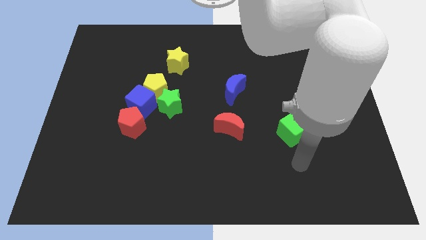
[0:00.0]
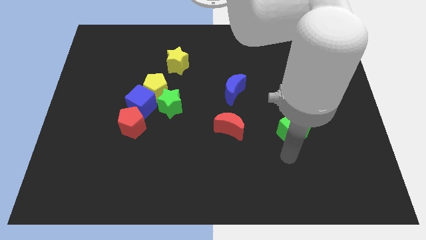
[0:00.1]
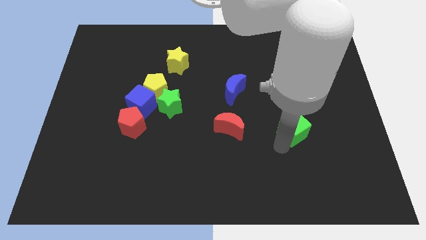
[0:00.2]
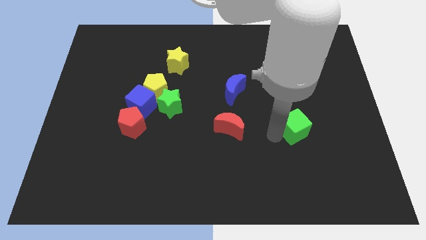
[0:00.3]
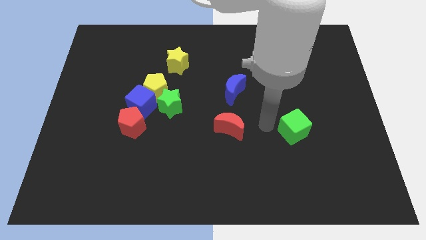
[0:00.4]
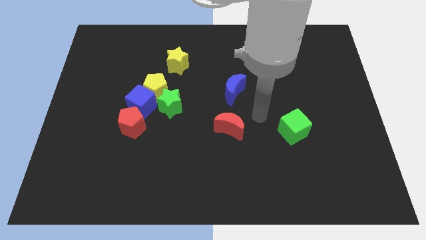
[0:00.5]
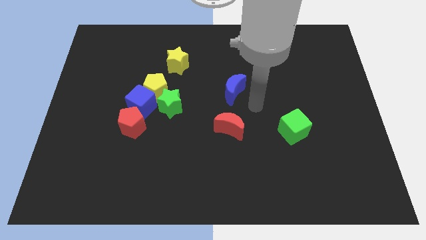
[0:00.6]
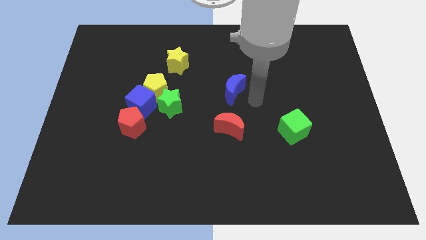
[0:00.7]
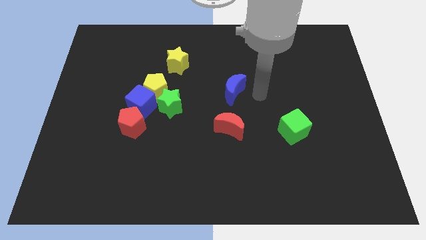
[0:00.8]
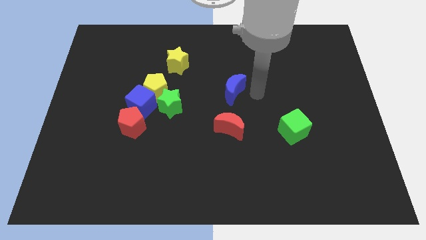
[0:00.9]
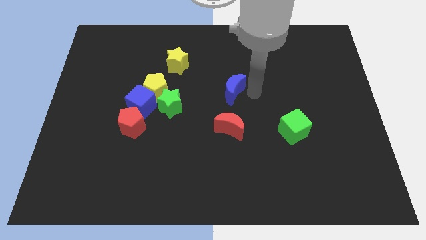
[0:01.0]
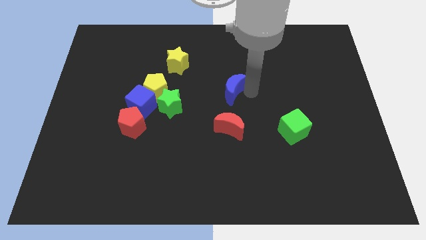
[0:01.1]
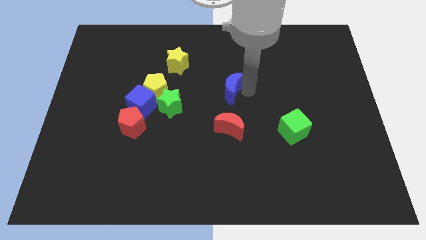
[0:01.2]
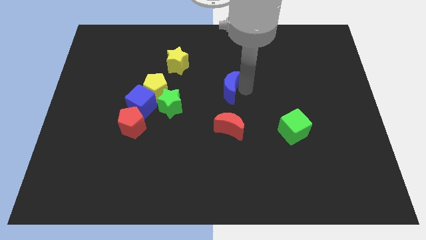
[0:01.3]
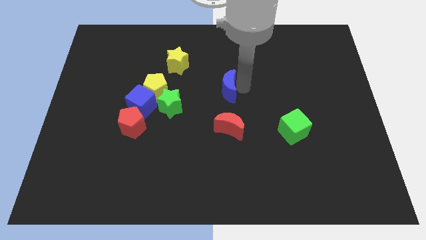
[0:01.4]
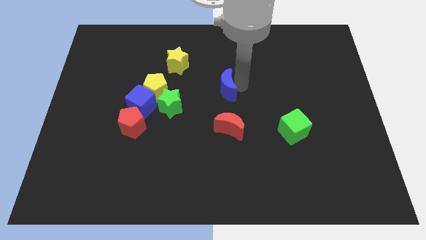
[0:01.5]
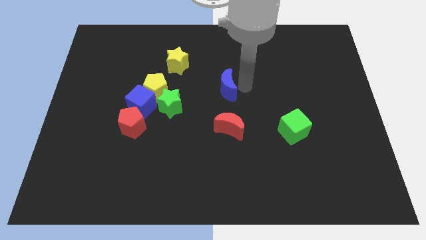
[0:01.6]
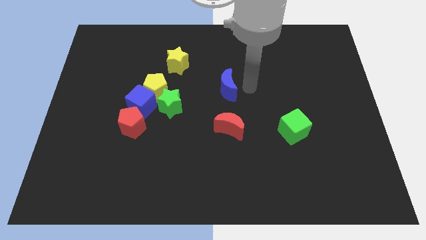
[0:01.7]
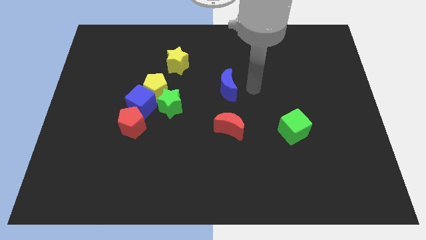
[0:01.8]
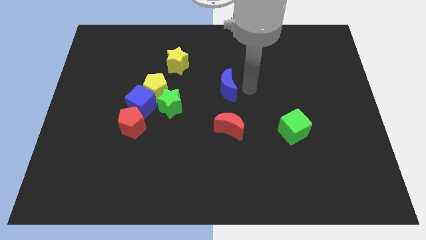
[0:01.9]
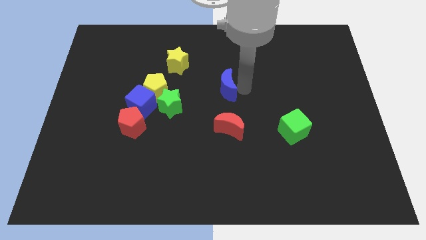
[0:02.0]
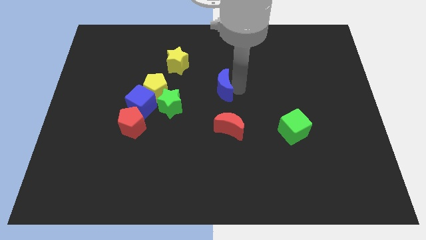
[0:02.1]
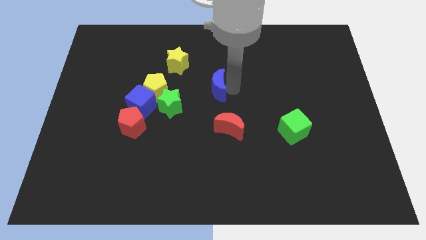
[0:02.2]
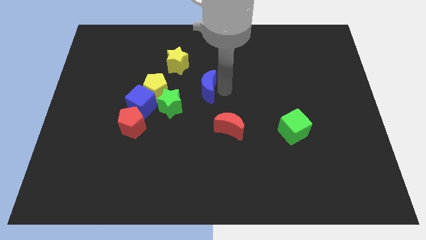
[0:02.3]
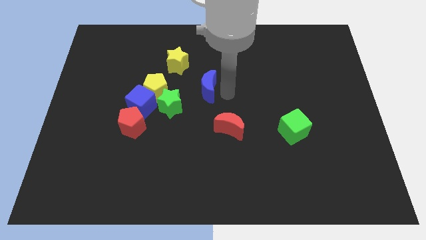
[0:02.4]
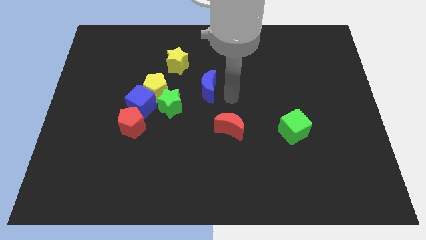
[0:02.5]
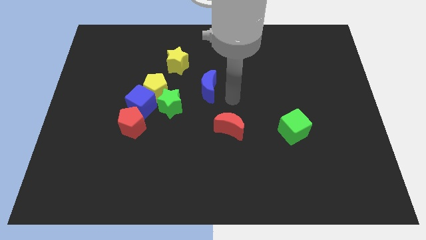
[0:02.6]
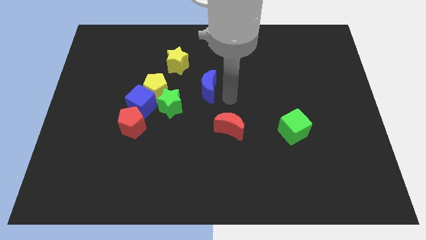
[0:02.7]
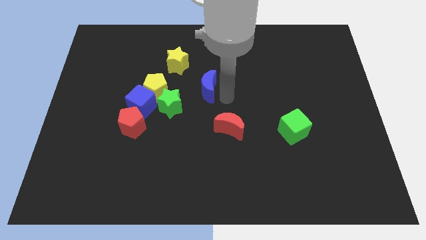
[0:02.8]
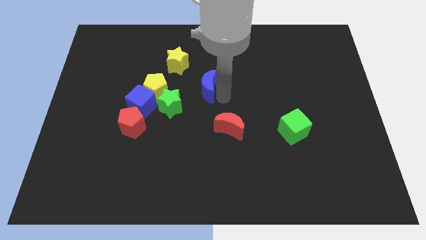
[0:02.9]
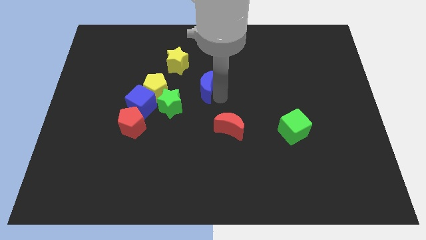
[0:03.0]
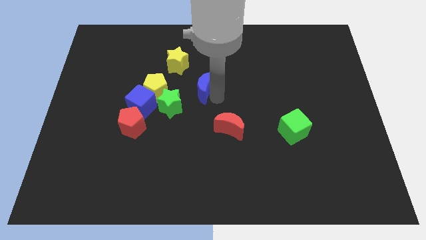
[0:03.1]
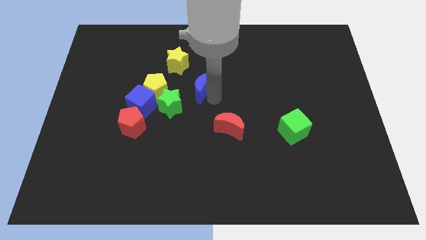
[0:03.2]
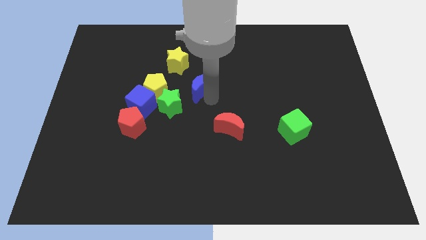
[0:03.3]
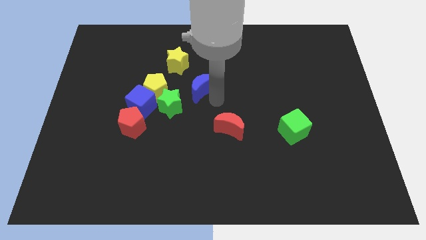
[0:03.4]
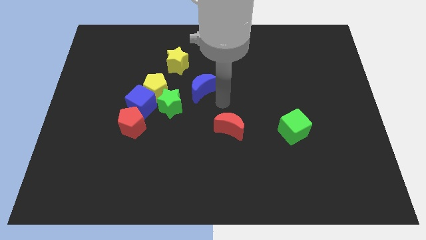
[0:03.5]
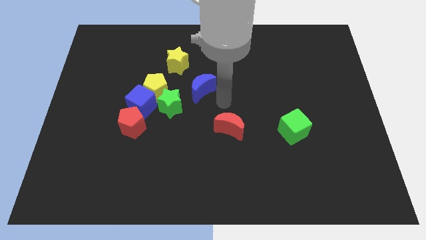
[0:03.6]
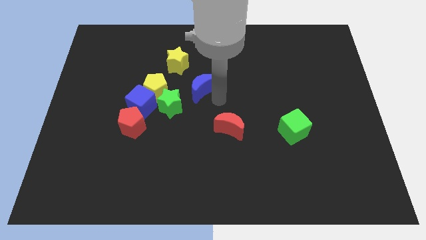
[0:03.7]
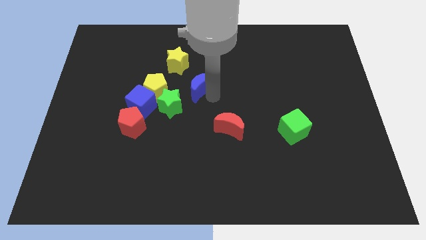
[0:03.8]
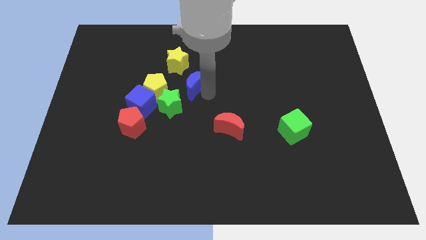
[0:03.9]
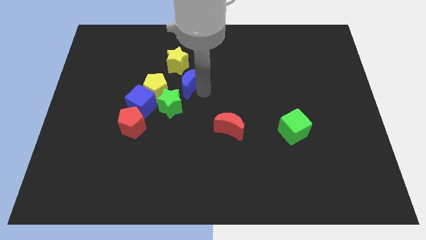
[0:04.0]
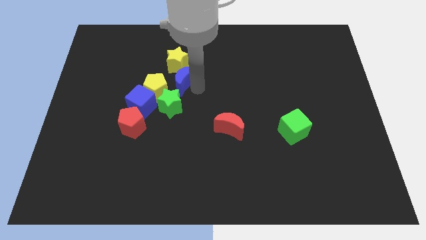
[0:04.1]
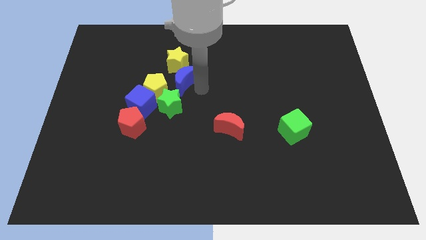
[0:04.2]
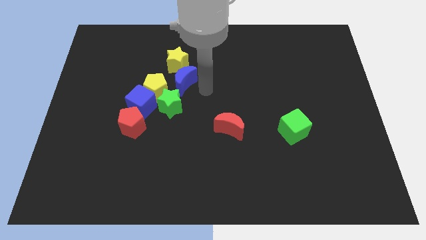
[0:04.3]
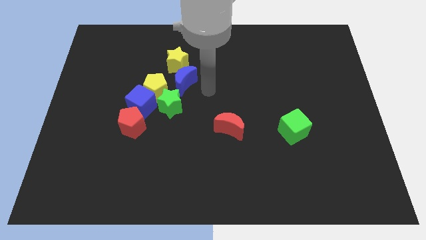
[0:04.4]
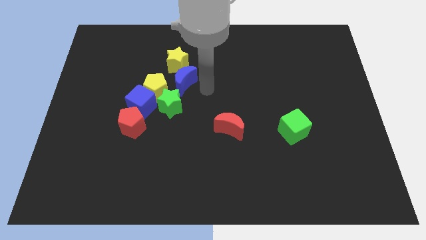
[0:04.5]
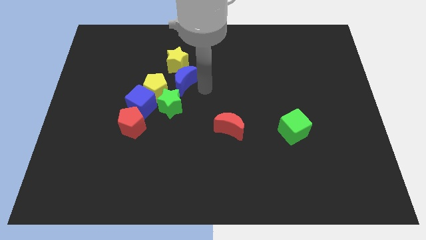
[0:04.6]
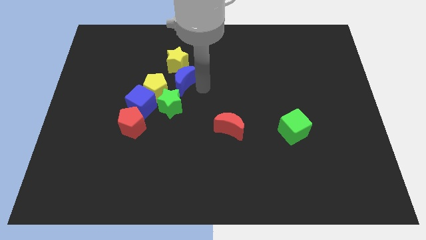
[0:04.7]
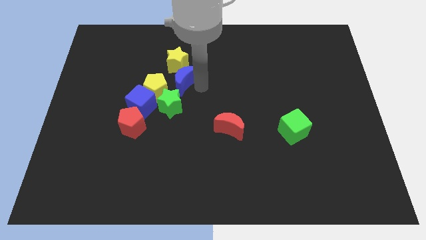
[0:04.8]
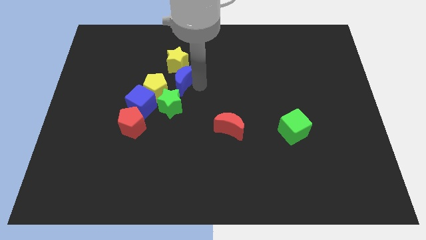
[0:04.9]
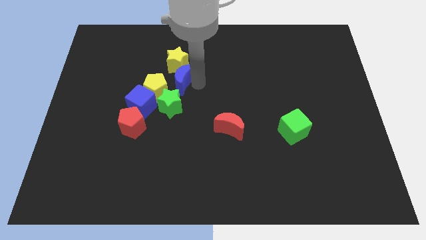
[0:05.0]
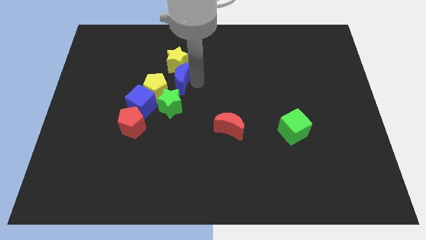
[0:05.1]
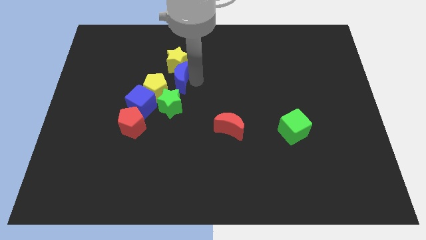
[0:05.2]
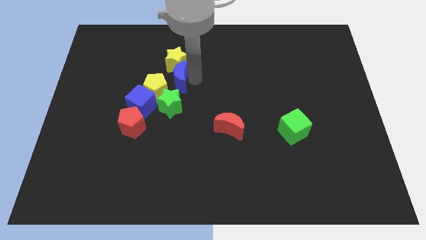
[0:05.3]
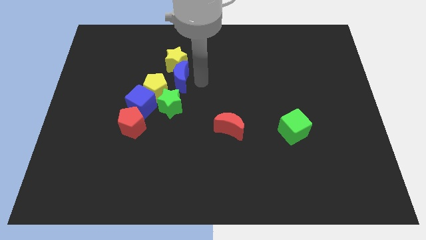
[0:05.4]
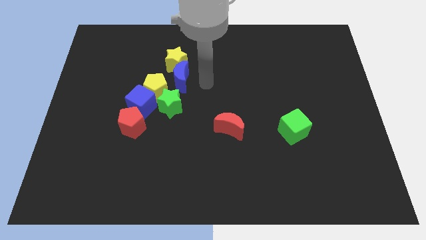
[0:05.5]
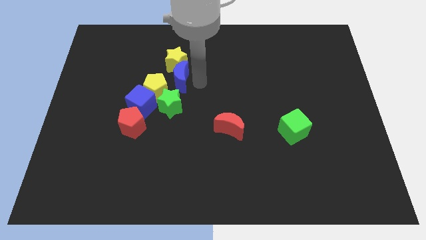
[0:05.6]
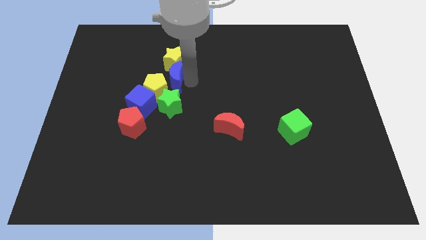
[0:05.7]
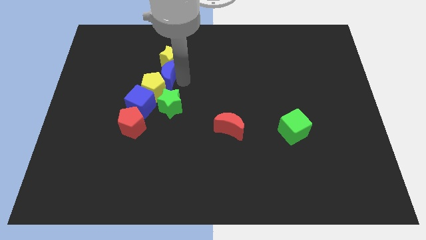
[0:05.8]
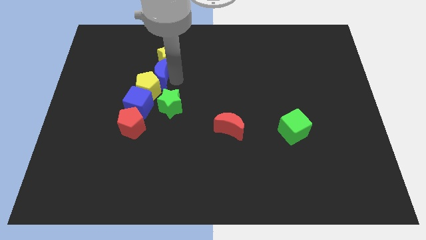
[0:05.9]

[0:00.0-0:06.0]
slide the blue moon to the top left side of the green star

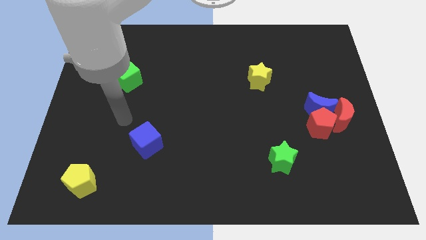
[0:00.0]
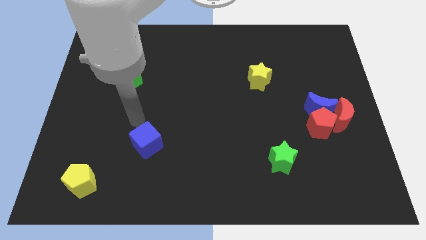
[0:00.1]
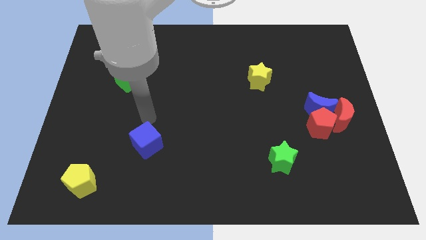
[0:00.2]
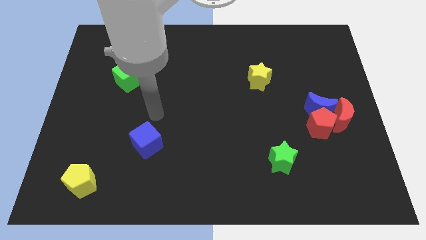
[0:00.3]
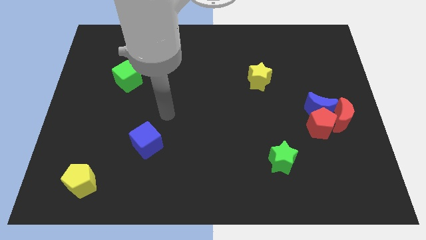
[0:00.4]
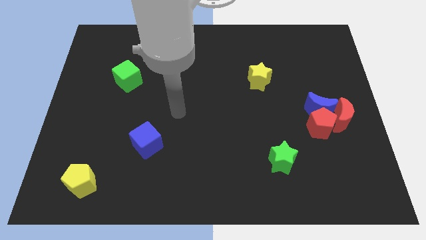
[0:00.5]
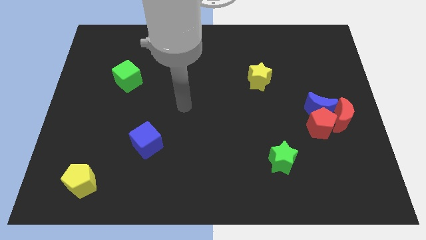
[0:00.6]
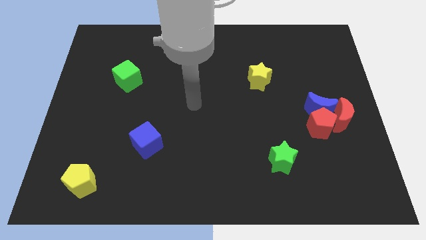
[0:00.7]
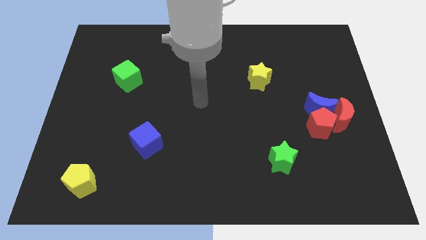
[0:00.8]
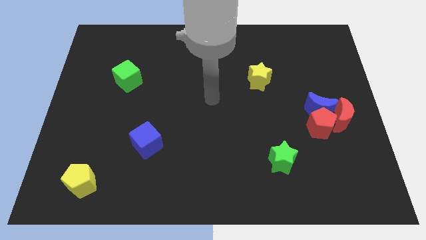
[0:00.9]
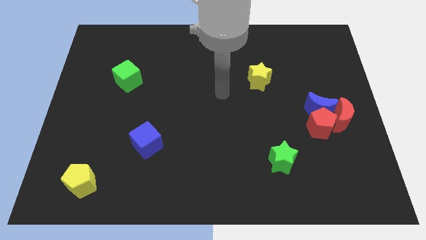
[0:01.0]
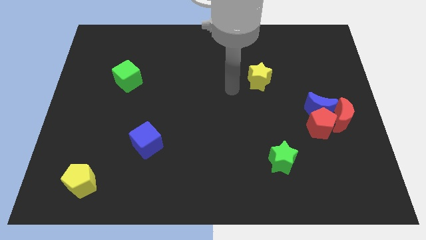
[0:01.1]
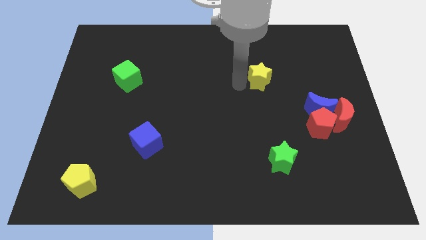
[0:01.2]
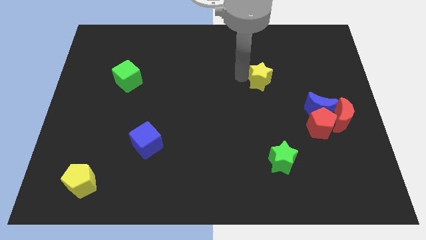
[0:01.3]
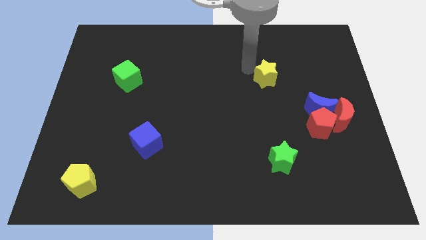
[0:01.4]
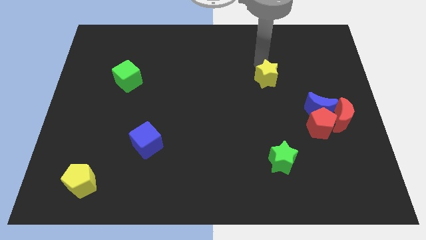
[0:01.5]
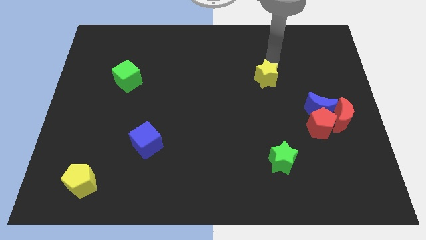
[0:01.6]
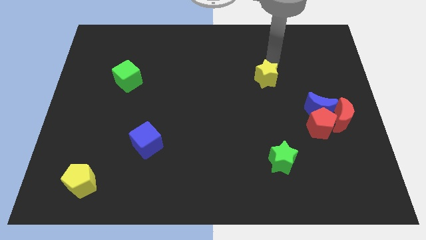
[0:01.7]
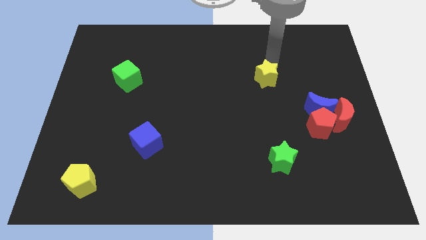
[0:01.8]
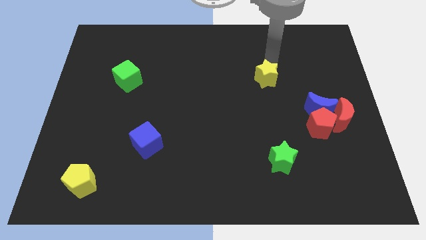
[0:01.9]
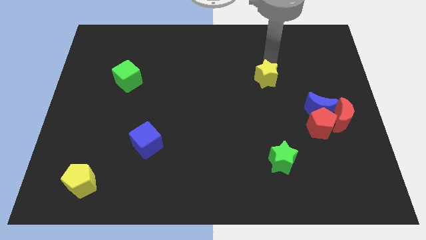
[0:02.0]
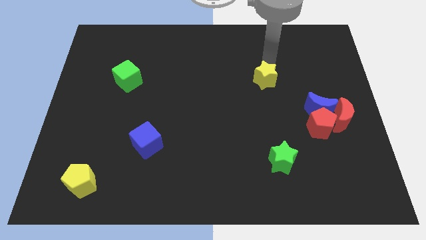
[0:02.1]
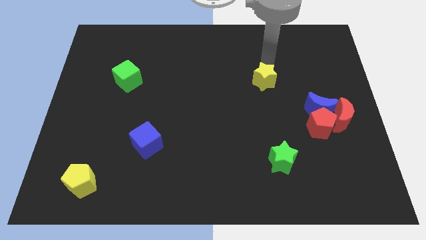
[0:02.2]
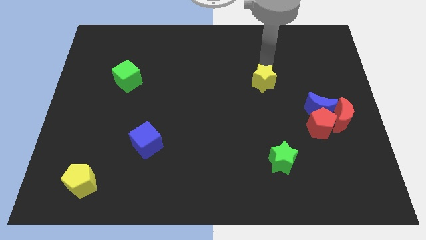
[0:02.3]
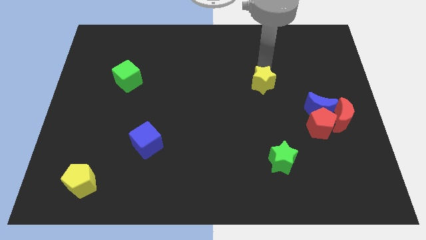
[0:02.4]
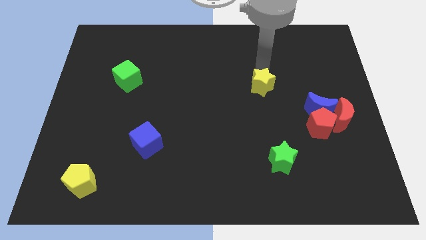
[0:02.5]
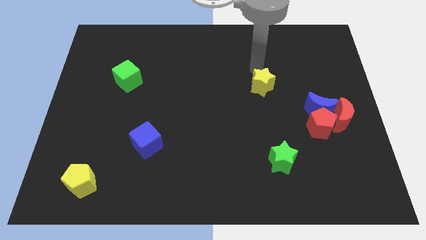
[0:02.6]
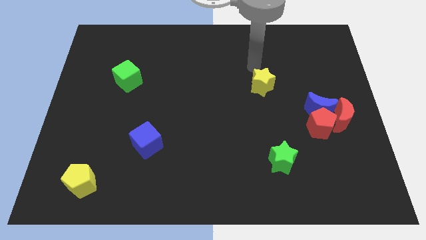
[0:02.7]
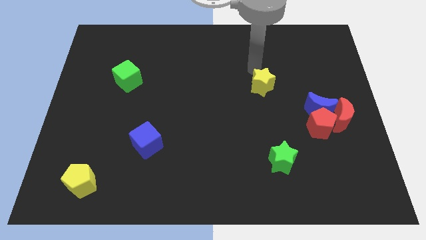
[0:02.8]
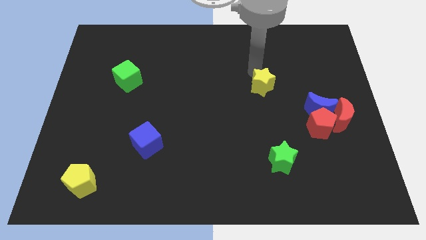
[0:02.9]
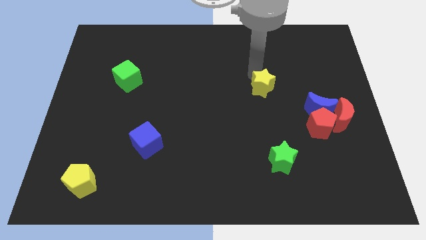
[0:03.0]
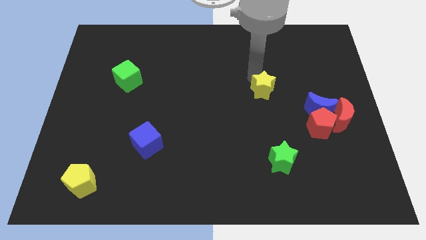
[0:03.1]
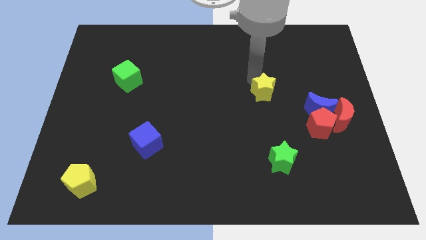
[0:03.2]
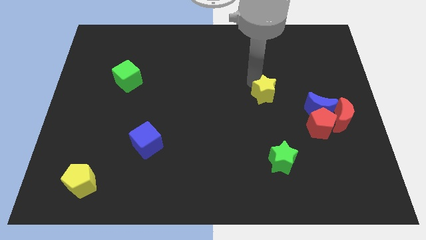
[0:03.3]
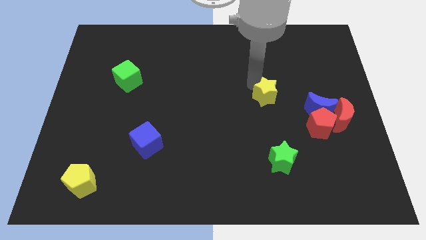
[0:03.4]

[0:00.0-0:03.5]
put the yellow star just left of the blue moon
